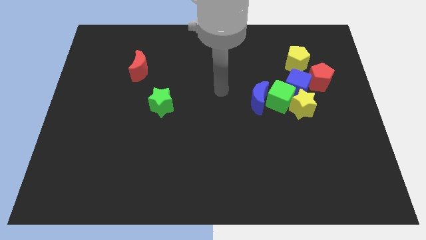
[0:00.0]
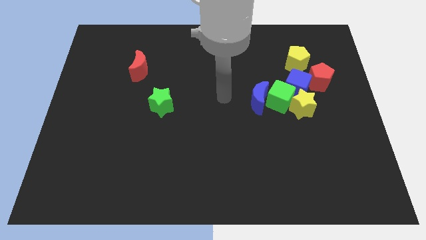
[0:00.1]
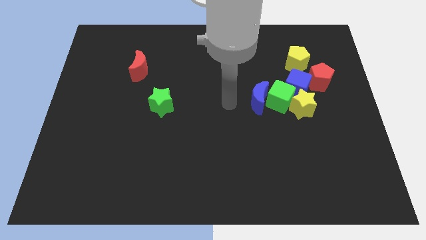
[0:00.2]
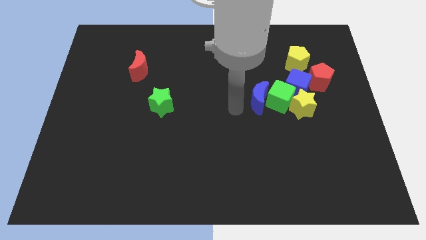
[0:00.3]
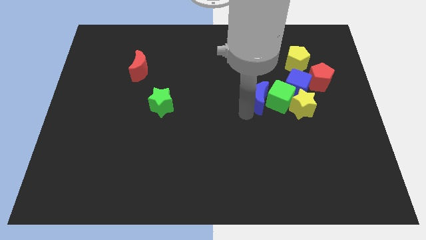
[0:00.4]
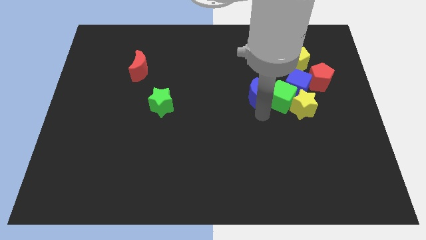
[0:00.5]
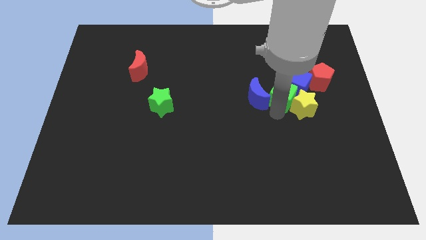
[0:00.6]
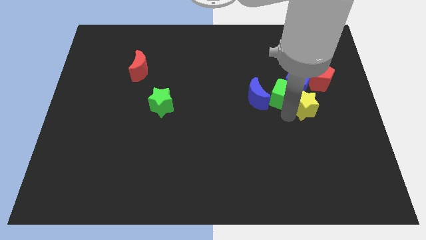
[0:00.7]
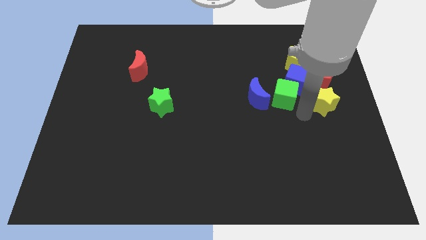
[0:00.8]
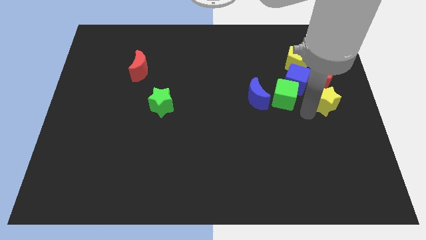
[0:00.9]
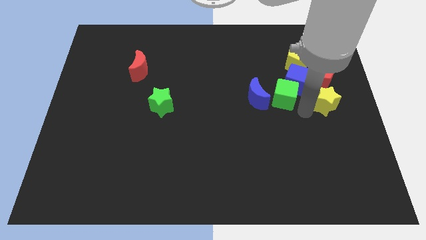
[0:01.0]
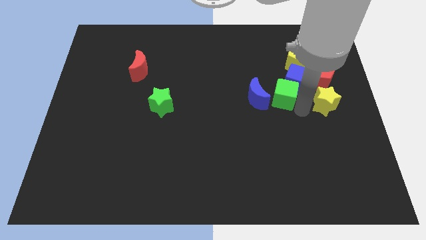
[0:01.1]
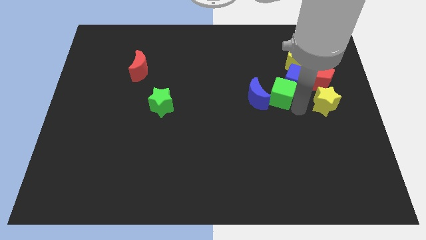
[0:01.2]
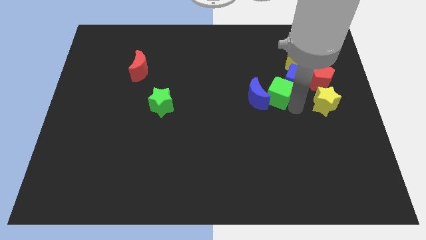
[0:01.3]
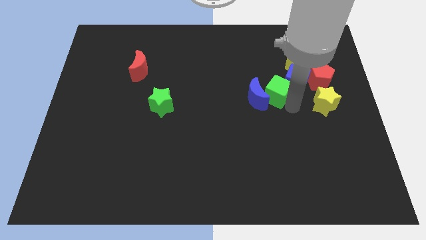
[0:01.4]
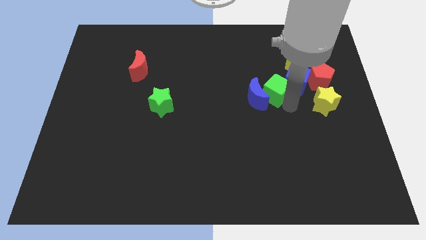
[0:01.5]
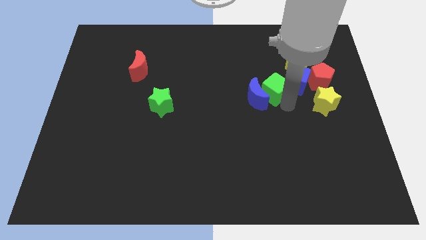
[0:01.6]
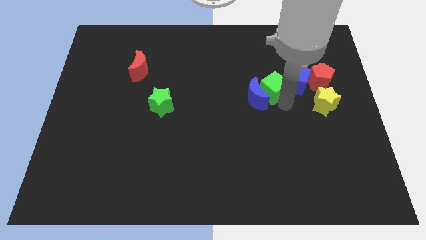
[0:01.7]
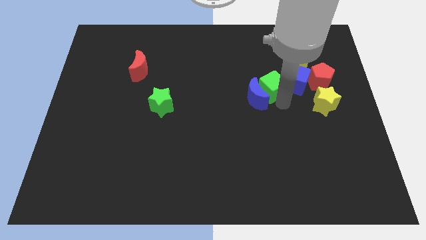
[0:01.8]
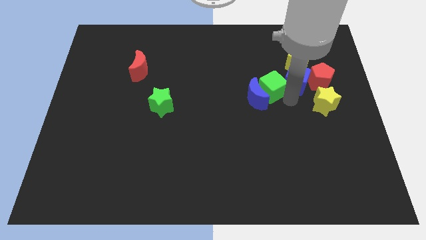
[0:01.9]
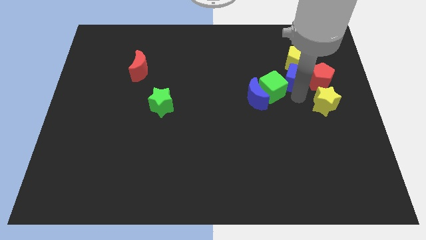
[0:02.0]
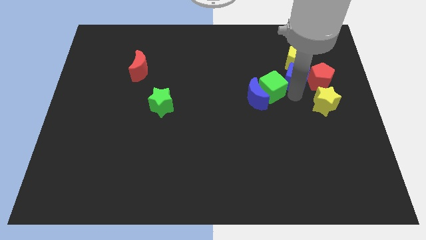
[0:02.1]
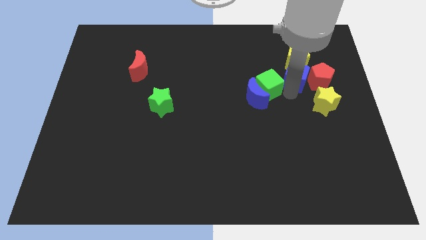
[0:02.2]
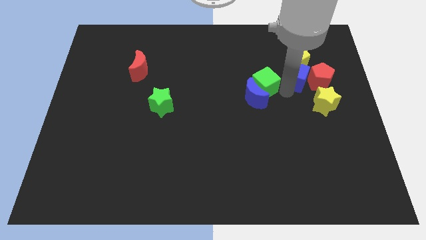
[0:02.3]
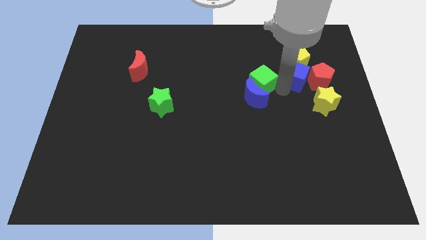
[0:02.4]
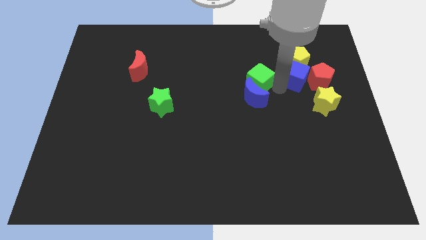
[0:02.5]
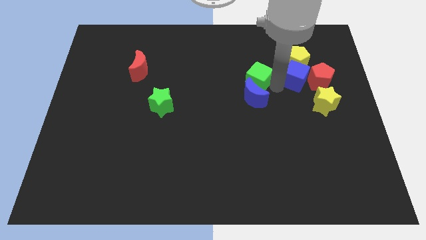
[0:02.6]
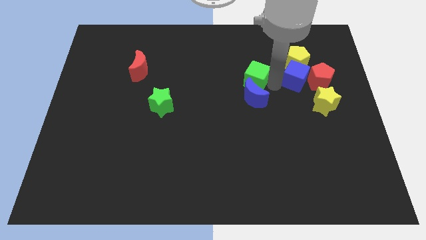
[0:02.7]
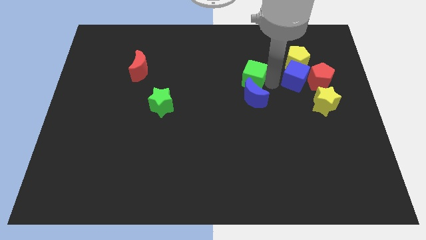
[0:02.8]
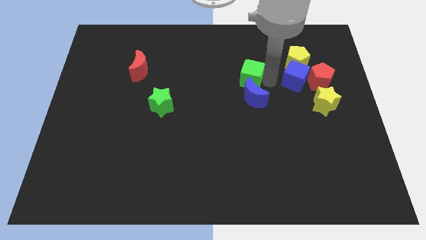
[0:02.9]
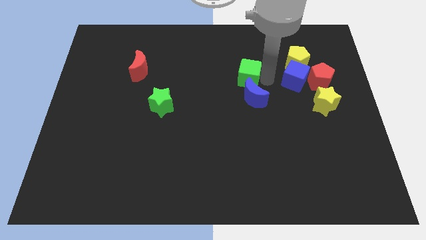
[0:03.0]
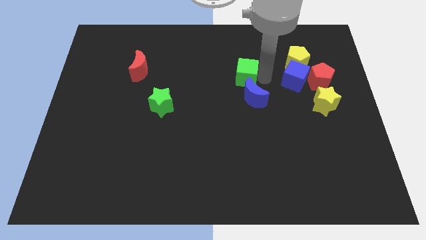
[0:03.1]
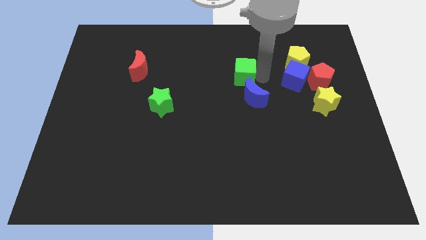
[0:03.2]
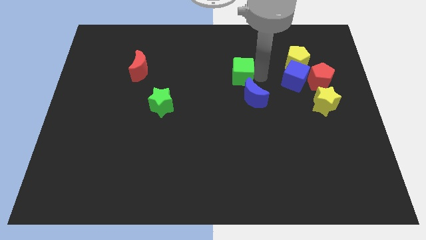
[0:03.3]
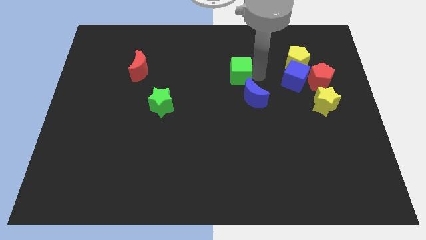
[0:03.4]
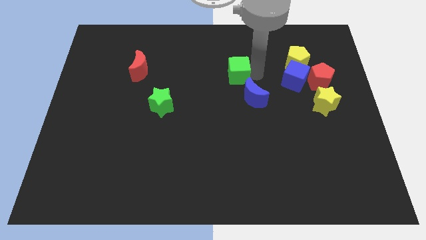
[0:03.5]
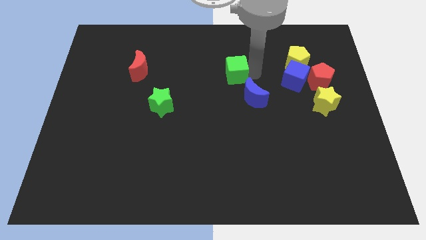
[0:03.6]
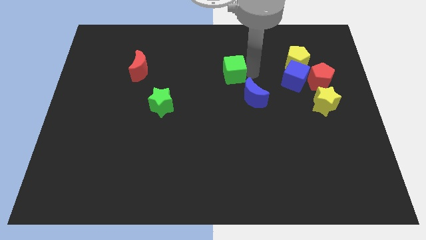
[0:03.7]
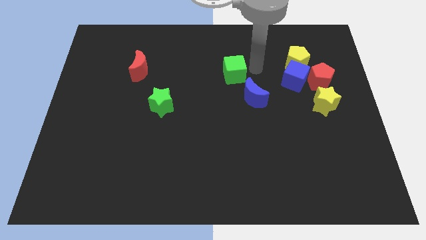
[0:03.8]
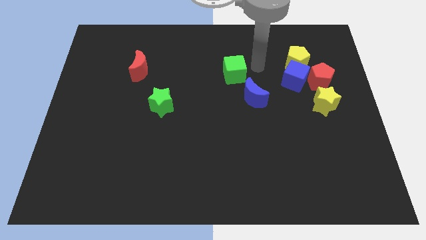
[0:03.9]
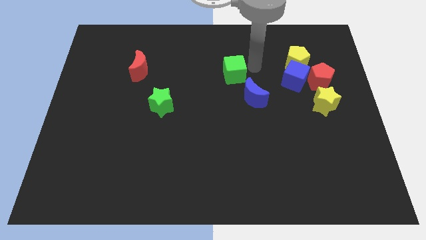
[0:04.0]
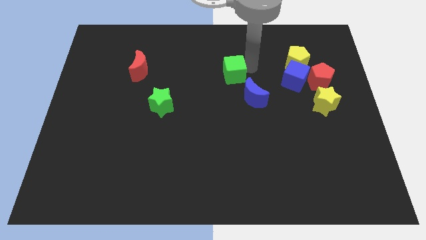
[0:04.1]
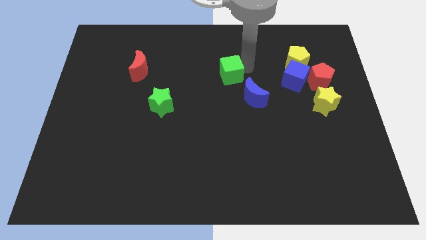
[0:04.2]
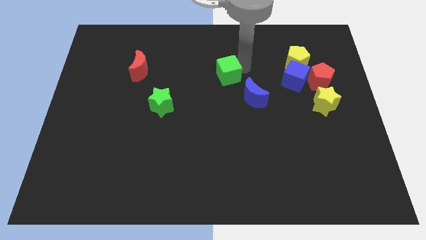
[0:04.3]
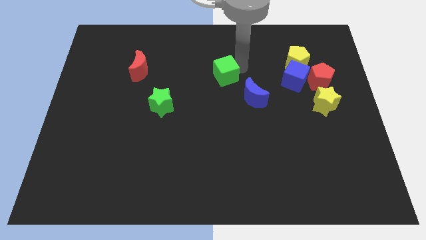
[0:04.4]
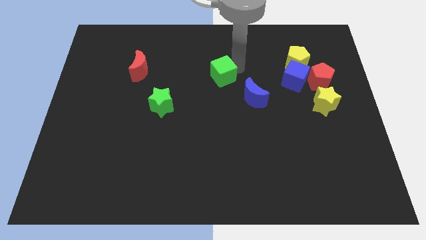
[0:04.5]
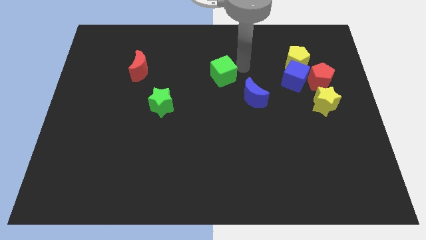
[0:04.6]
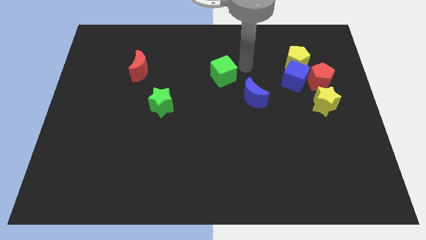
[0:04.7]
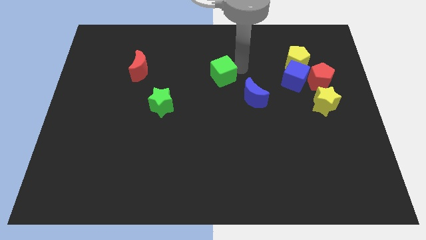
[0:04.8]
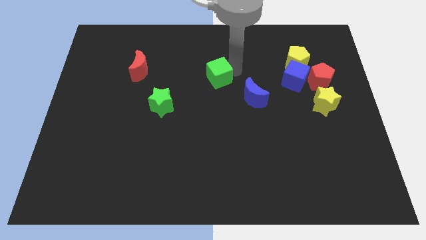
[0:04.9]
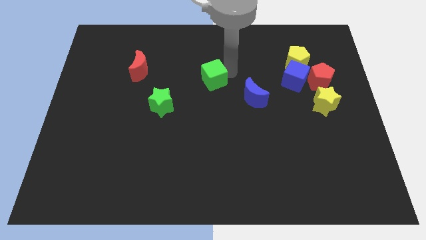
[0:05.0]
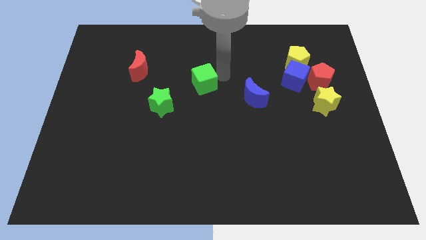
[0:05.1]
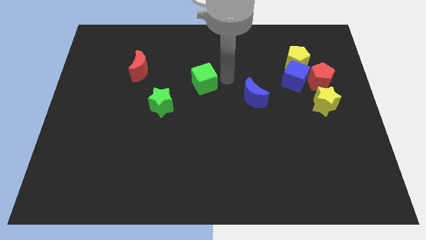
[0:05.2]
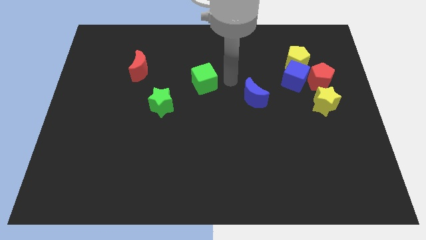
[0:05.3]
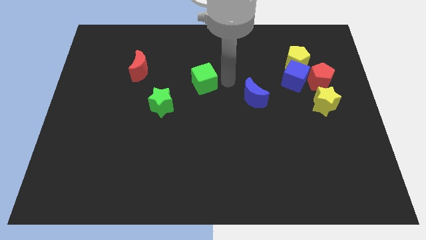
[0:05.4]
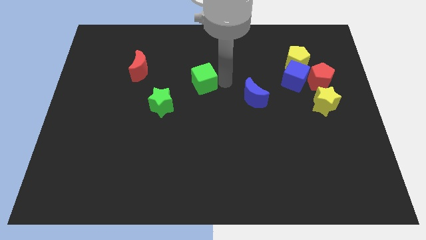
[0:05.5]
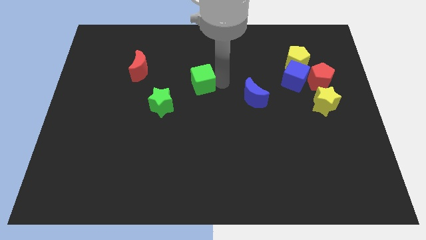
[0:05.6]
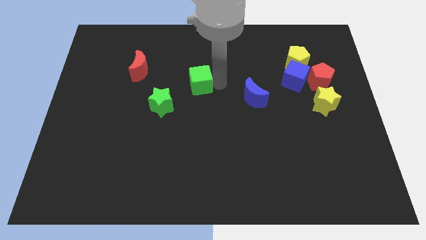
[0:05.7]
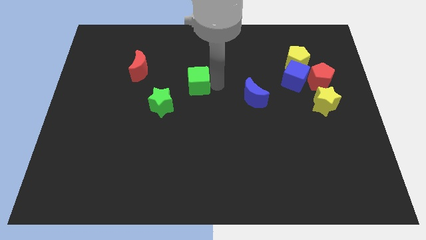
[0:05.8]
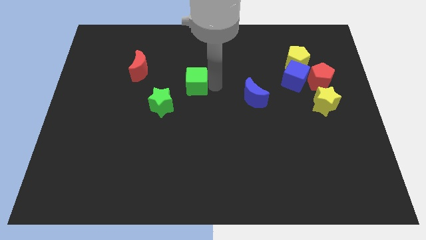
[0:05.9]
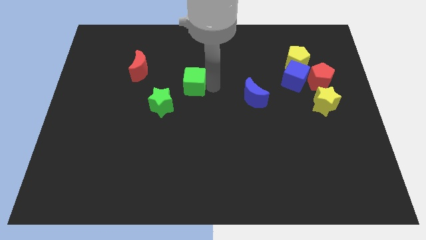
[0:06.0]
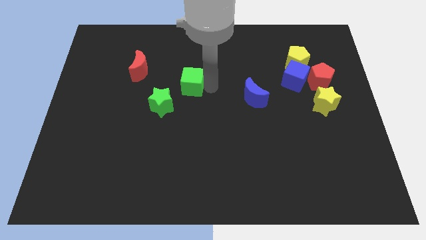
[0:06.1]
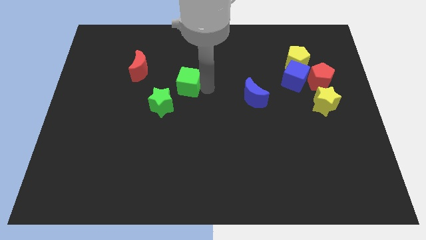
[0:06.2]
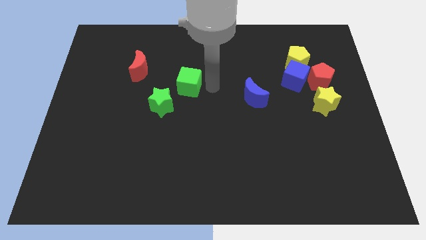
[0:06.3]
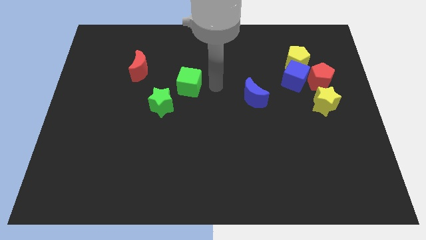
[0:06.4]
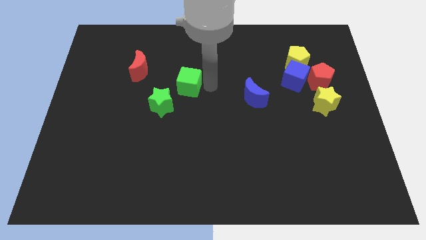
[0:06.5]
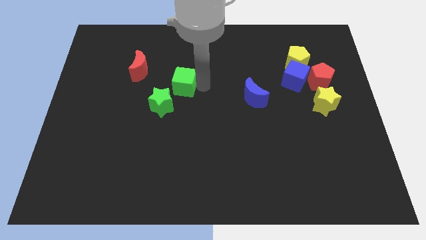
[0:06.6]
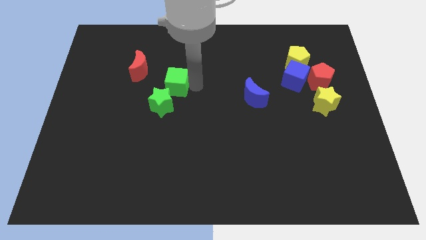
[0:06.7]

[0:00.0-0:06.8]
slide the green cube diagonally down and to the right of the red moon
